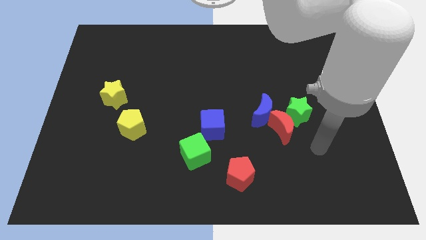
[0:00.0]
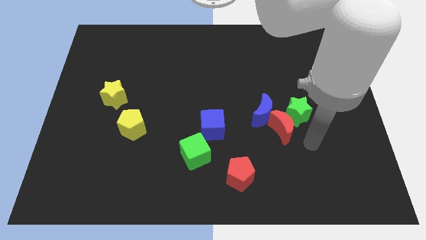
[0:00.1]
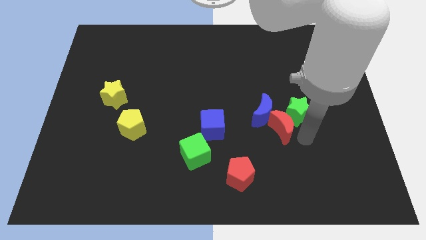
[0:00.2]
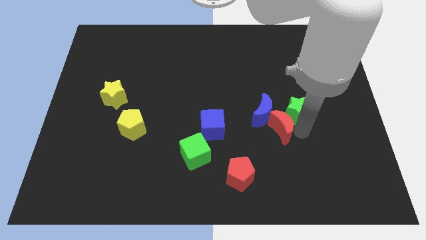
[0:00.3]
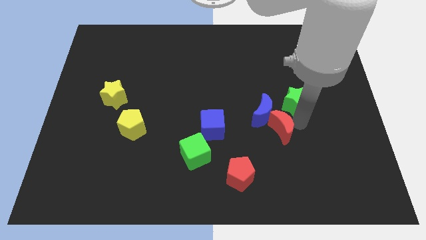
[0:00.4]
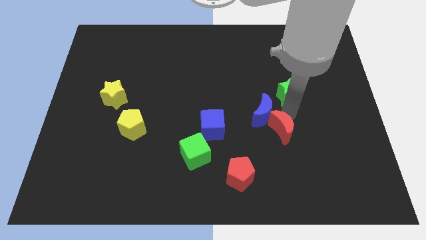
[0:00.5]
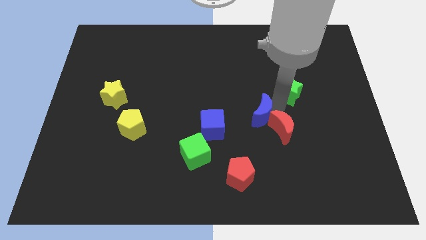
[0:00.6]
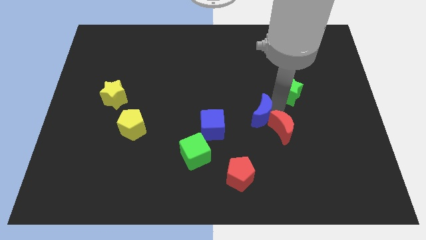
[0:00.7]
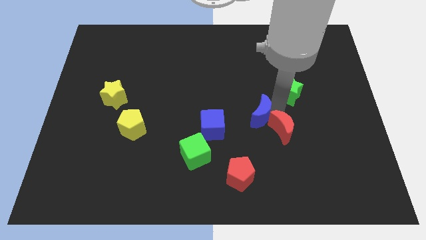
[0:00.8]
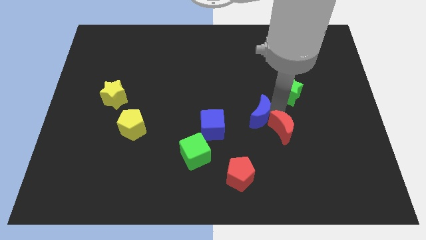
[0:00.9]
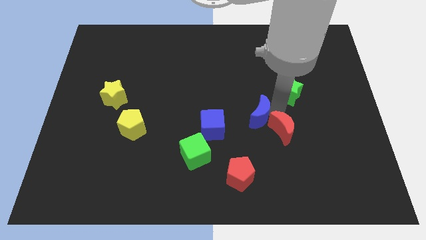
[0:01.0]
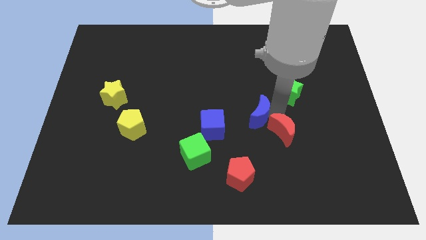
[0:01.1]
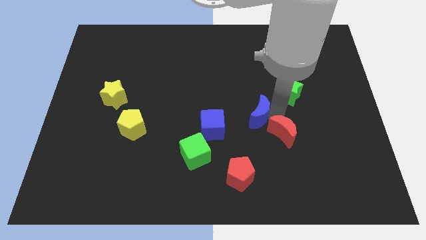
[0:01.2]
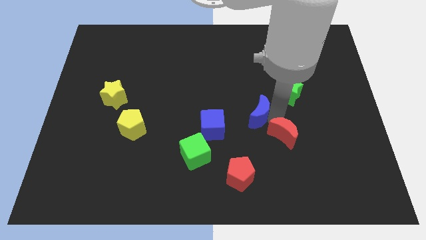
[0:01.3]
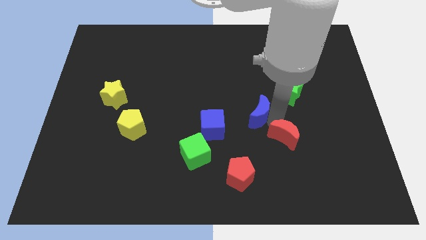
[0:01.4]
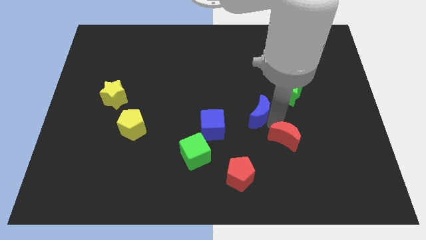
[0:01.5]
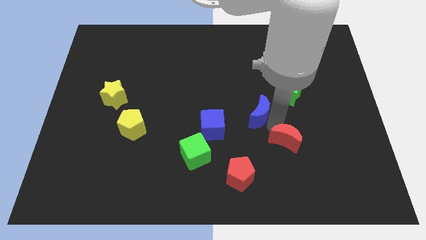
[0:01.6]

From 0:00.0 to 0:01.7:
move the red moon away from the blue moon and green star

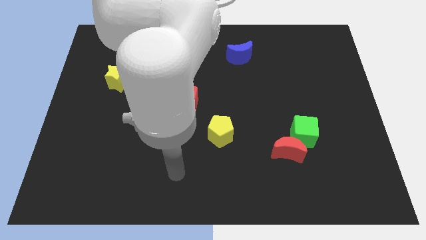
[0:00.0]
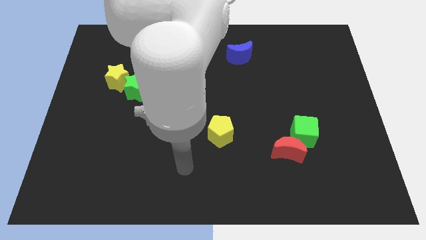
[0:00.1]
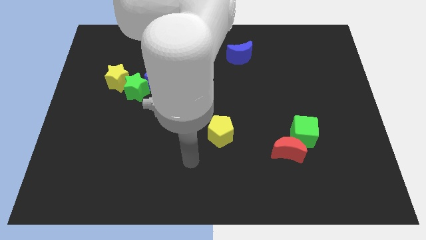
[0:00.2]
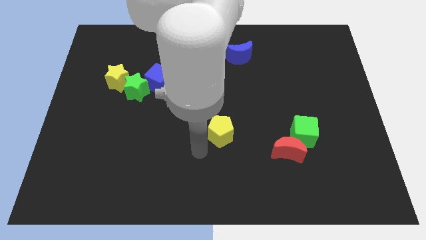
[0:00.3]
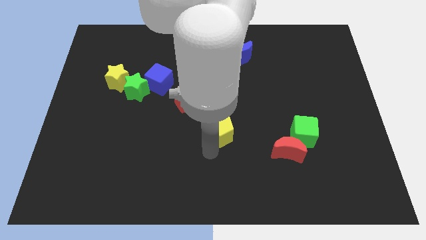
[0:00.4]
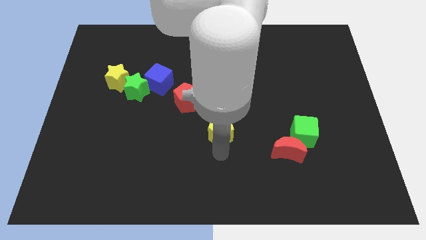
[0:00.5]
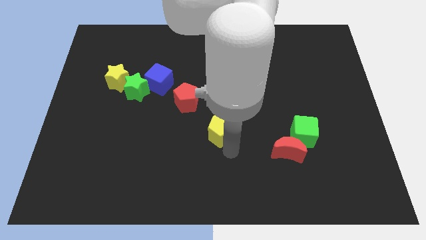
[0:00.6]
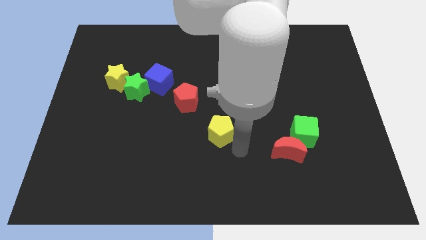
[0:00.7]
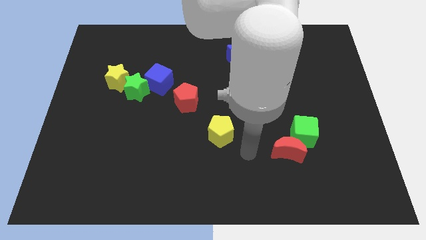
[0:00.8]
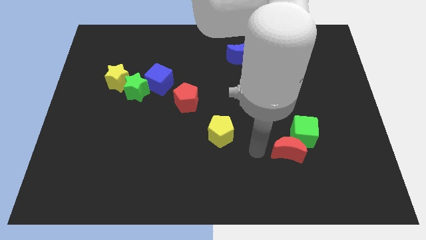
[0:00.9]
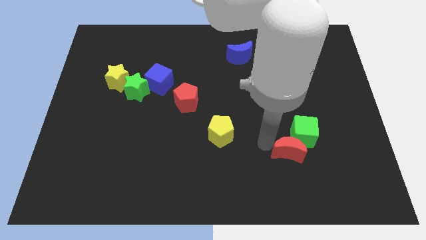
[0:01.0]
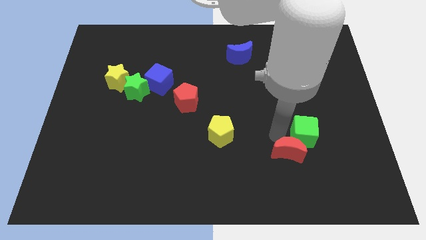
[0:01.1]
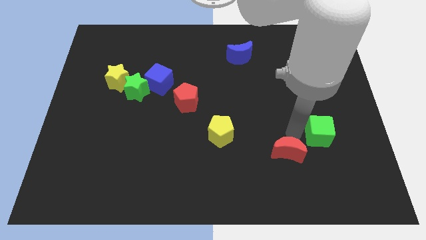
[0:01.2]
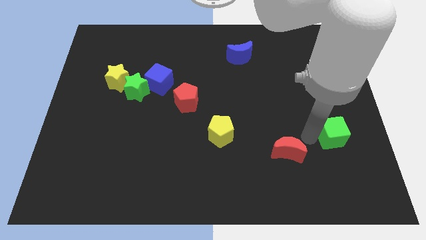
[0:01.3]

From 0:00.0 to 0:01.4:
separate the red moon from the green cube

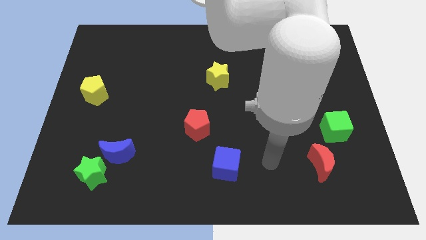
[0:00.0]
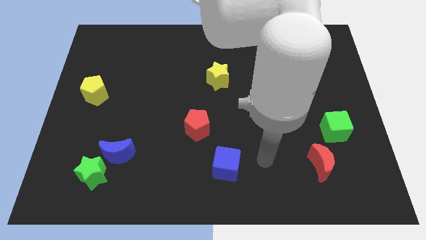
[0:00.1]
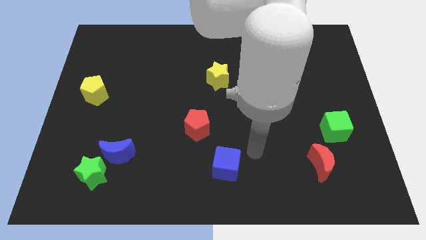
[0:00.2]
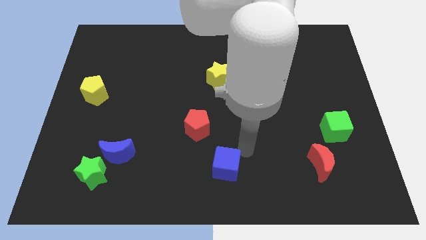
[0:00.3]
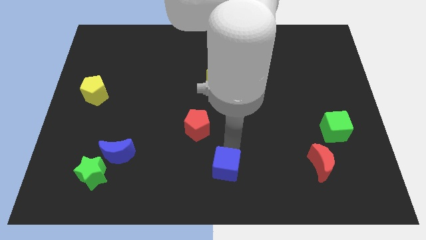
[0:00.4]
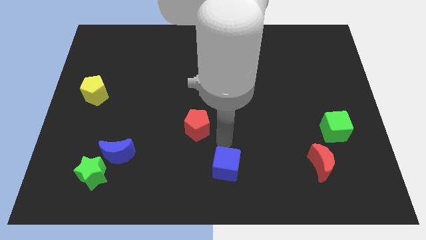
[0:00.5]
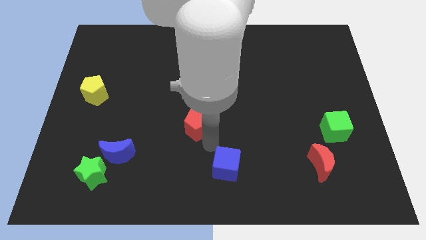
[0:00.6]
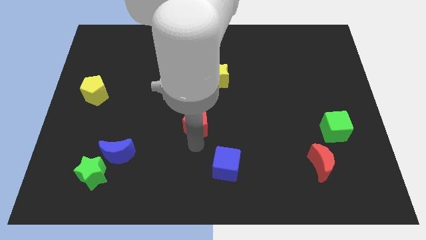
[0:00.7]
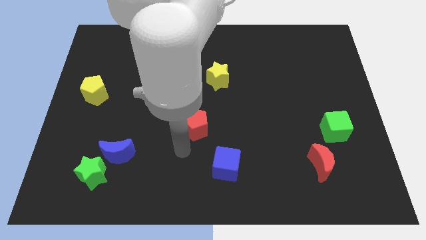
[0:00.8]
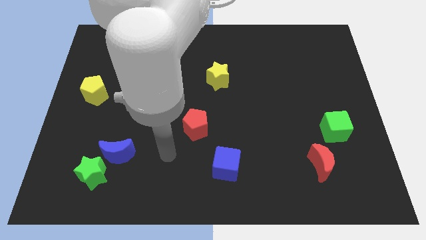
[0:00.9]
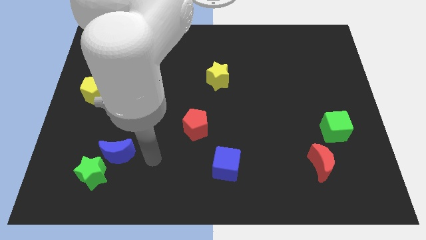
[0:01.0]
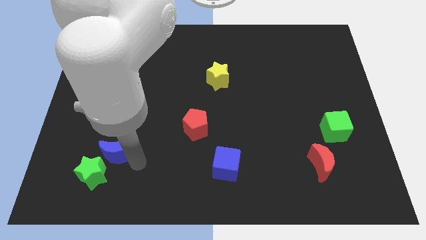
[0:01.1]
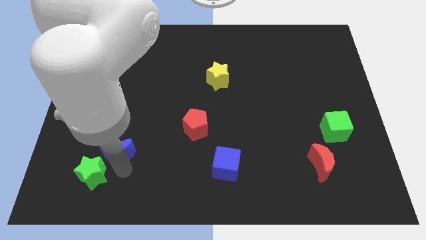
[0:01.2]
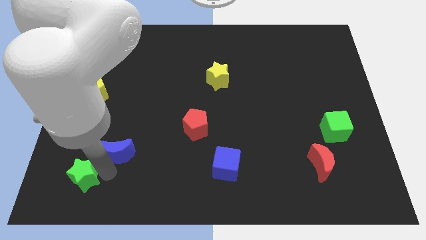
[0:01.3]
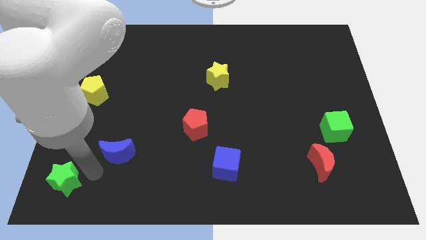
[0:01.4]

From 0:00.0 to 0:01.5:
move the blue moon away from the green star

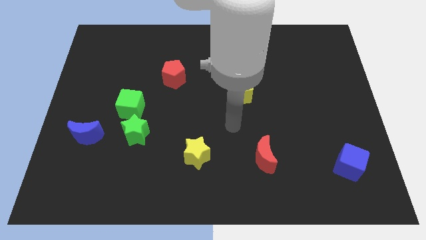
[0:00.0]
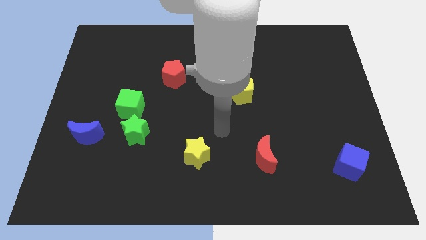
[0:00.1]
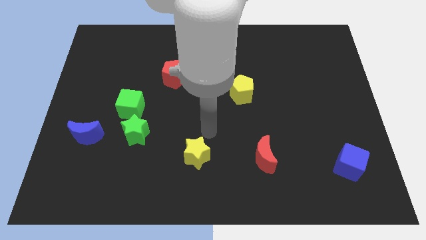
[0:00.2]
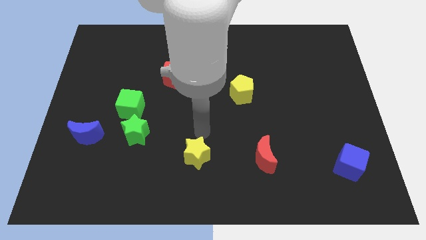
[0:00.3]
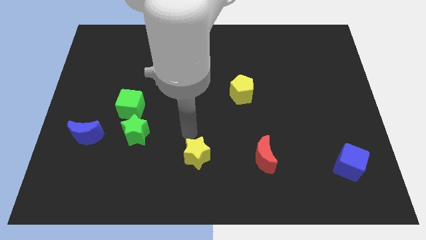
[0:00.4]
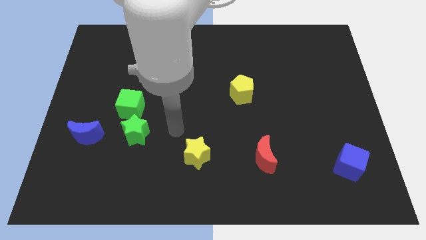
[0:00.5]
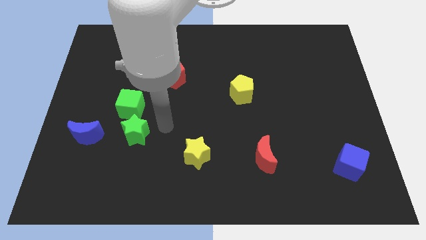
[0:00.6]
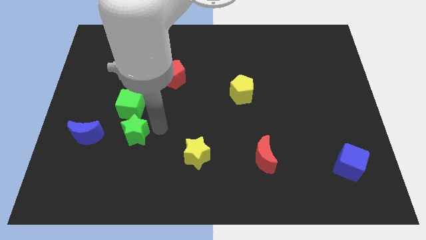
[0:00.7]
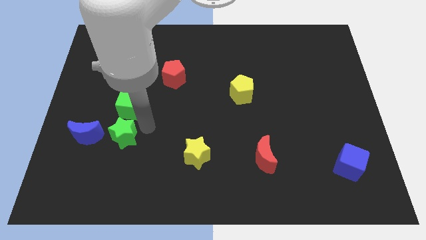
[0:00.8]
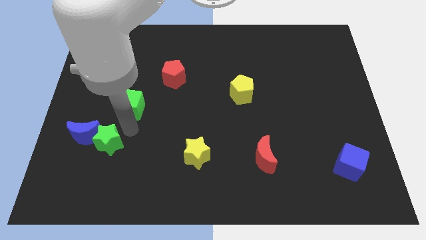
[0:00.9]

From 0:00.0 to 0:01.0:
move the green cube away from the green star

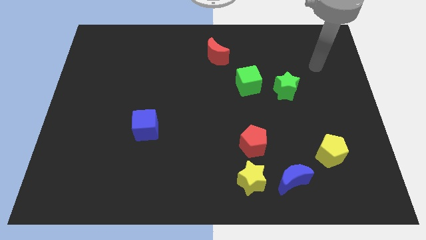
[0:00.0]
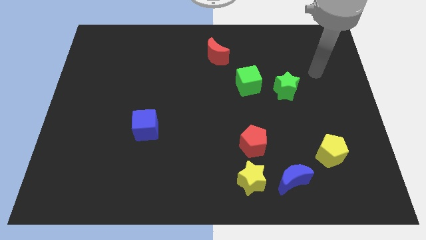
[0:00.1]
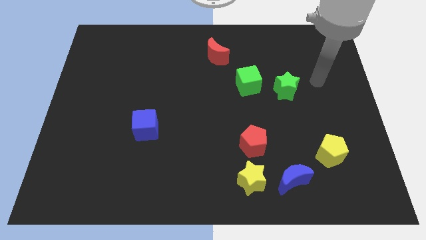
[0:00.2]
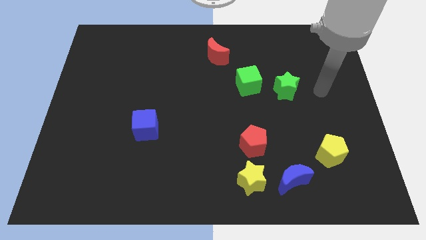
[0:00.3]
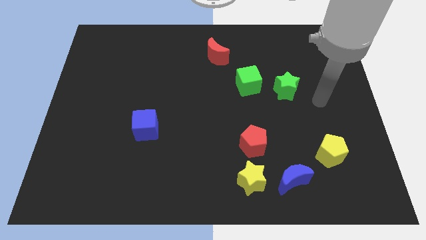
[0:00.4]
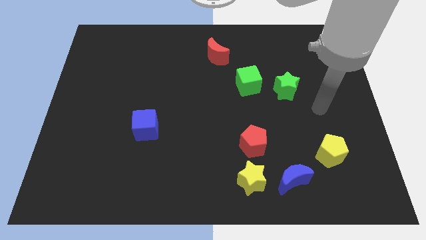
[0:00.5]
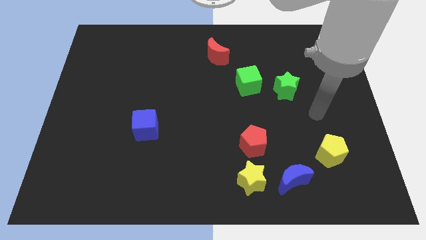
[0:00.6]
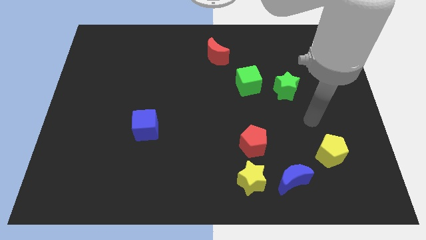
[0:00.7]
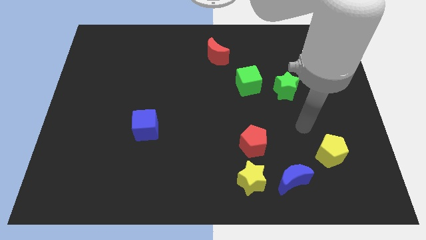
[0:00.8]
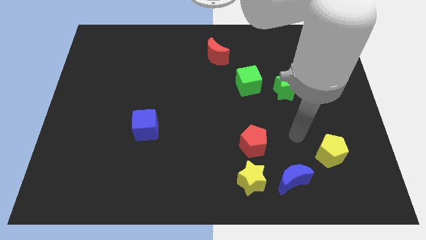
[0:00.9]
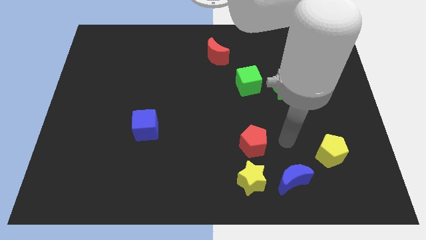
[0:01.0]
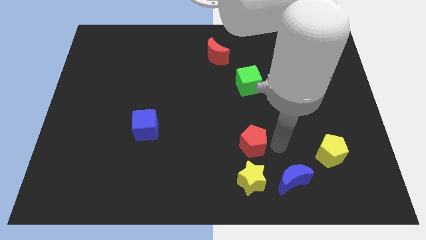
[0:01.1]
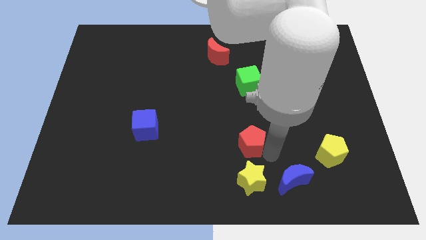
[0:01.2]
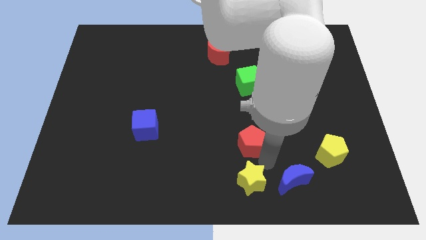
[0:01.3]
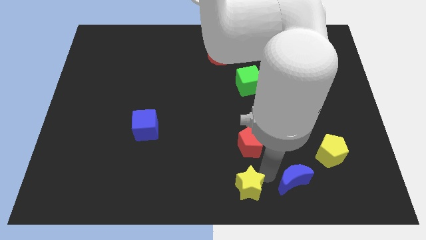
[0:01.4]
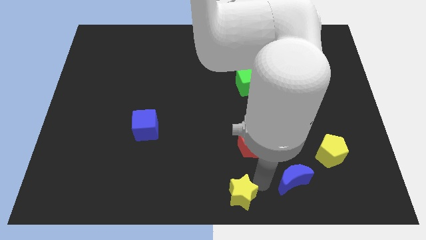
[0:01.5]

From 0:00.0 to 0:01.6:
move the blue moon away from the yellow star

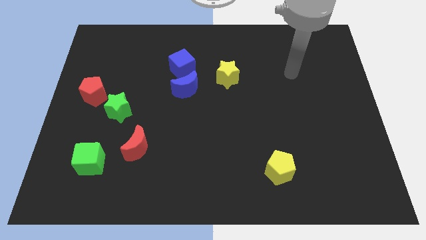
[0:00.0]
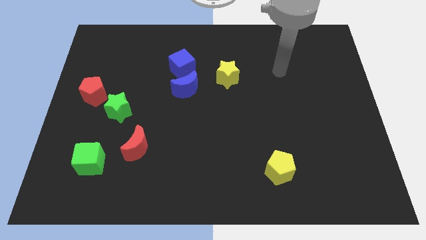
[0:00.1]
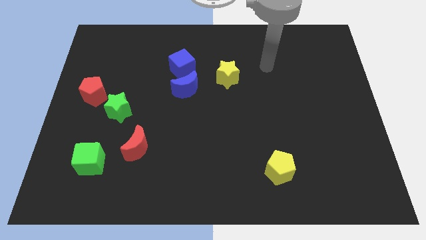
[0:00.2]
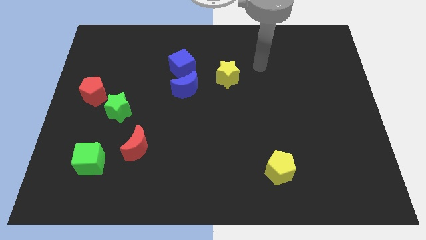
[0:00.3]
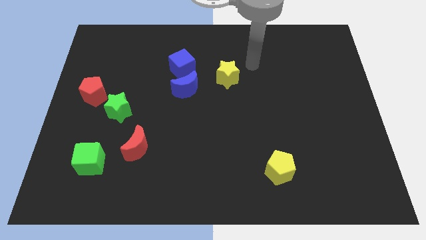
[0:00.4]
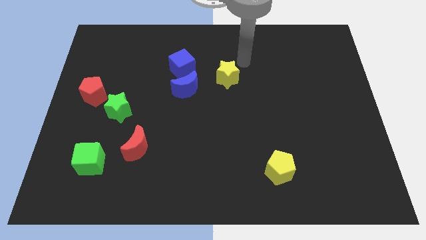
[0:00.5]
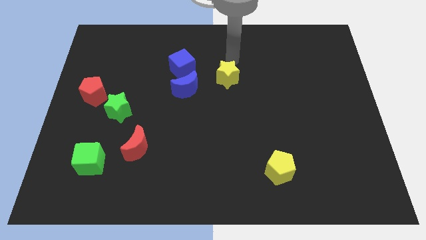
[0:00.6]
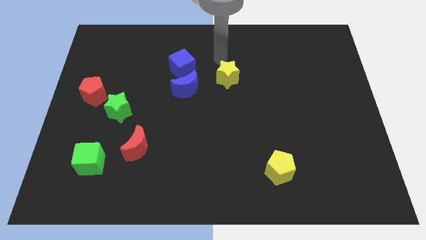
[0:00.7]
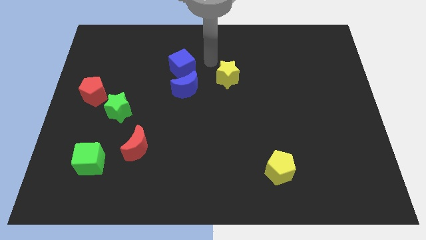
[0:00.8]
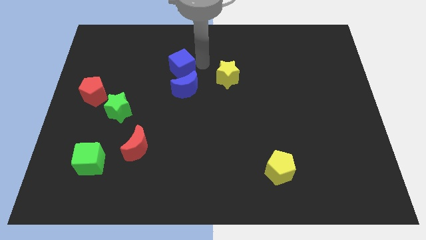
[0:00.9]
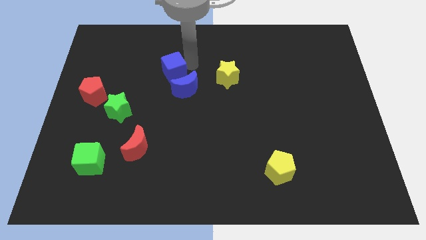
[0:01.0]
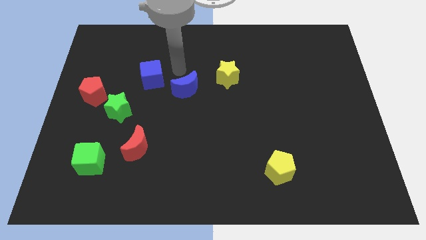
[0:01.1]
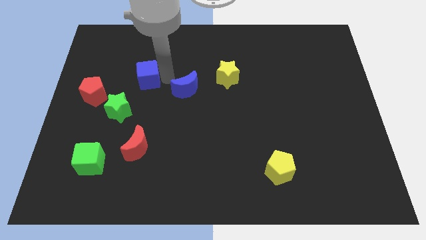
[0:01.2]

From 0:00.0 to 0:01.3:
separate the blue moon from the blue cube

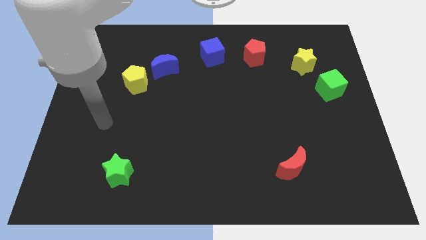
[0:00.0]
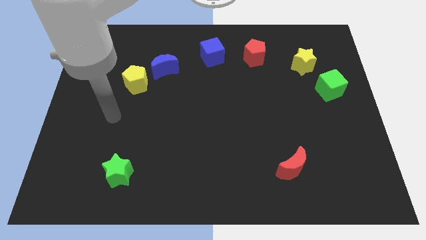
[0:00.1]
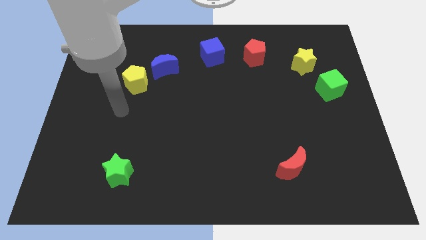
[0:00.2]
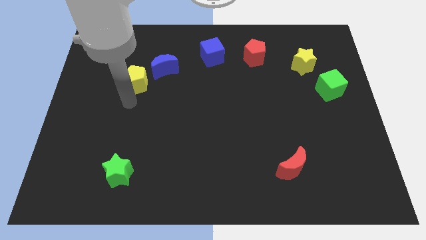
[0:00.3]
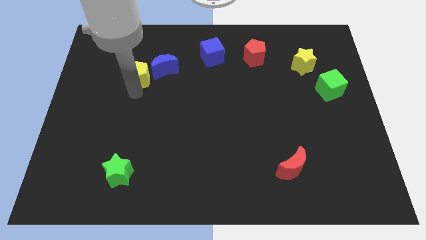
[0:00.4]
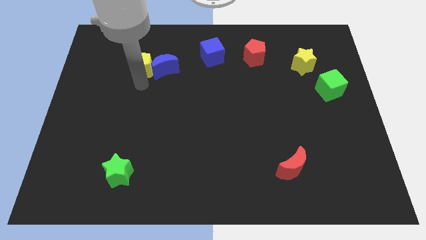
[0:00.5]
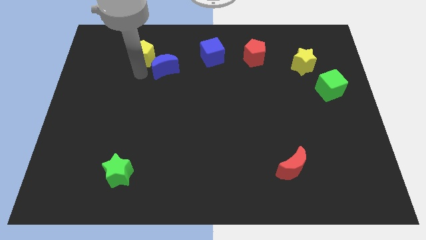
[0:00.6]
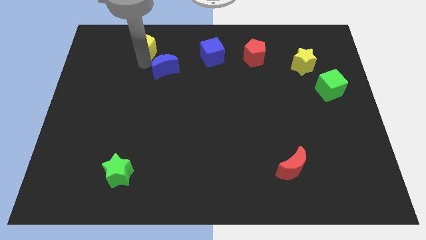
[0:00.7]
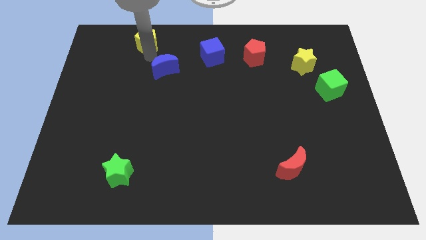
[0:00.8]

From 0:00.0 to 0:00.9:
separate the blue moon from the yellow pentagon
